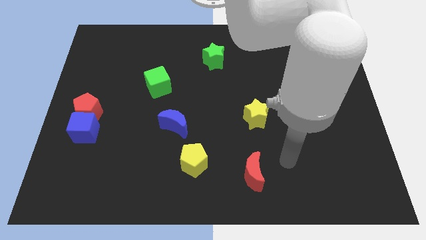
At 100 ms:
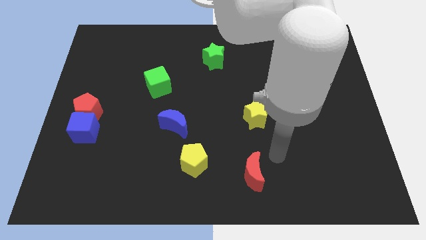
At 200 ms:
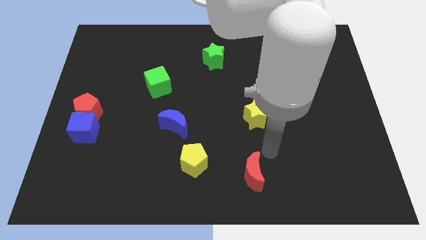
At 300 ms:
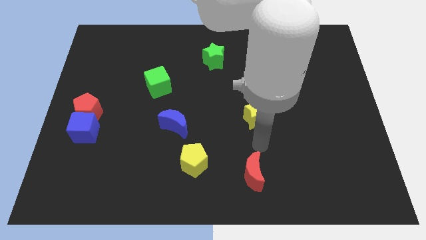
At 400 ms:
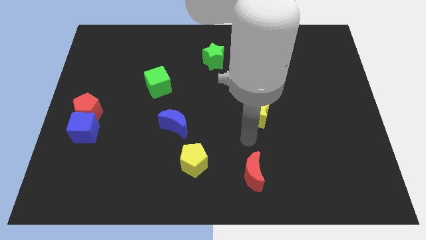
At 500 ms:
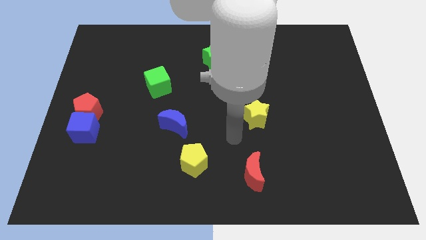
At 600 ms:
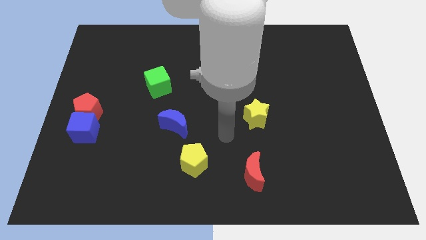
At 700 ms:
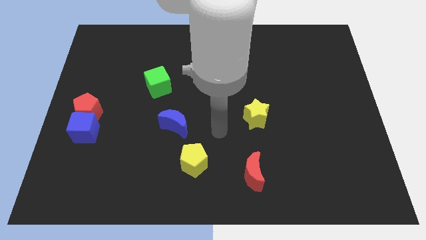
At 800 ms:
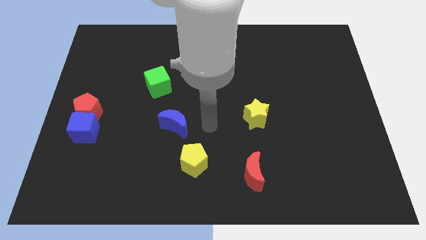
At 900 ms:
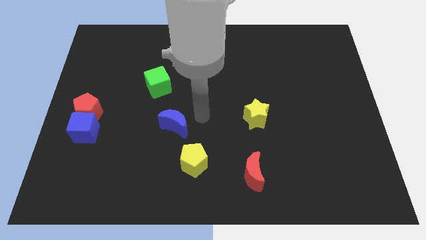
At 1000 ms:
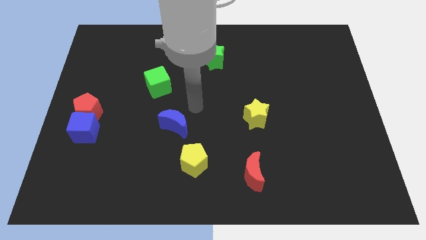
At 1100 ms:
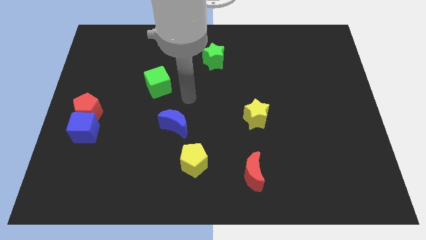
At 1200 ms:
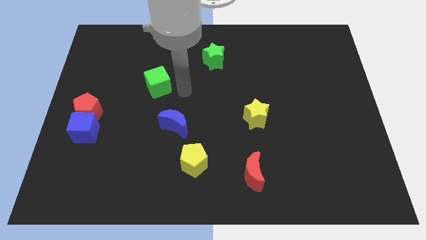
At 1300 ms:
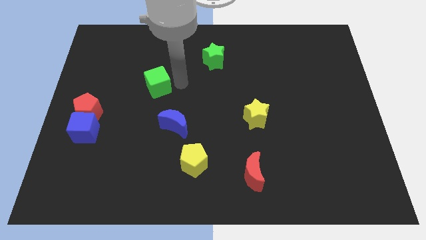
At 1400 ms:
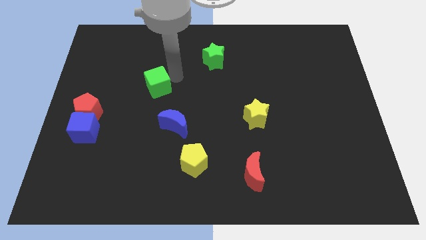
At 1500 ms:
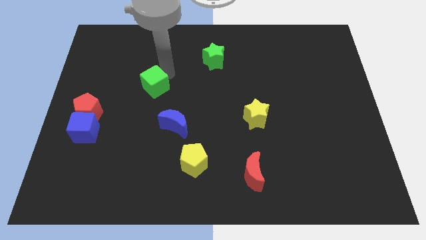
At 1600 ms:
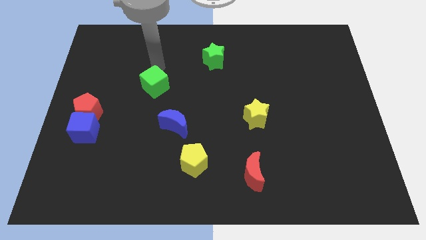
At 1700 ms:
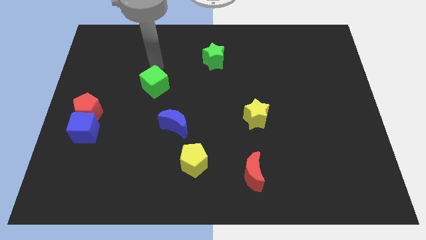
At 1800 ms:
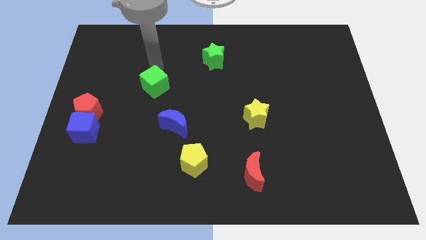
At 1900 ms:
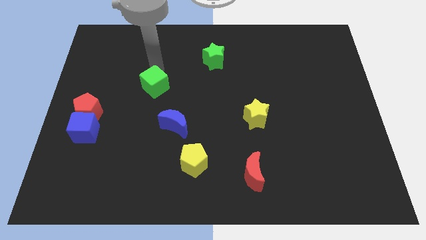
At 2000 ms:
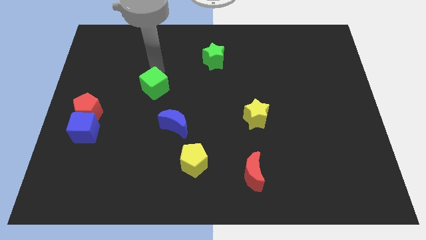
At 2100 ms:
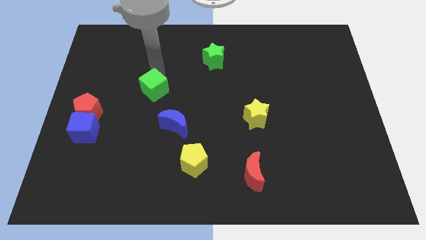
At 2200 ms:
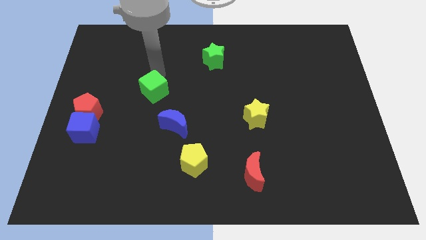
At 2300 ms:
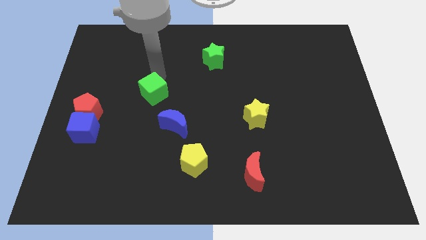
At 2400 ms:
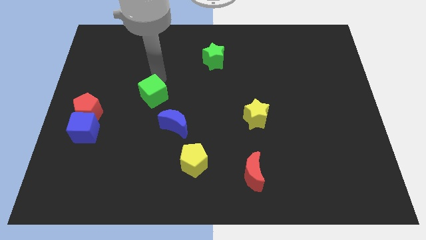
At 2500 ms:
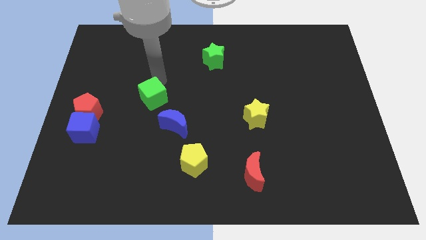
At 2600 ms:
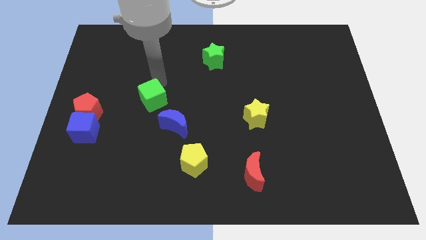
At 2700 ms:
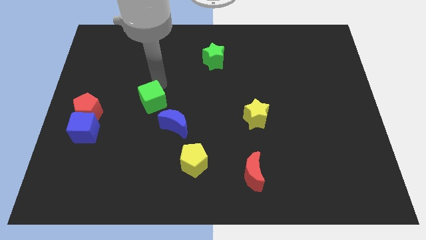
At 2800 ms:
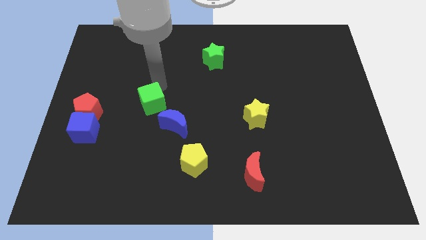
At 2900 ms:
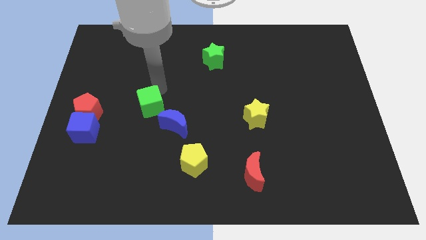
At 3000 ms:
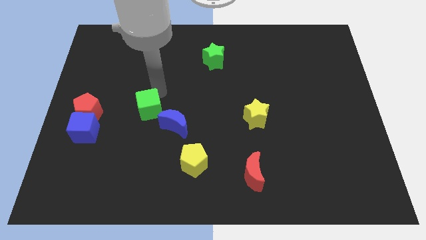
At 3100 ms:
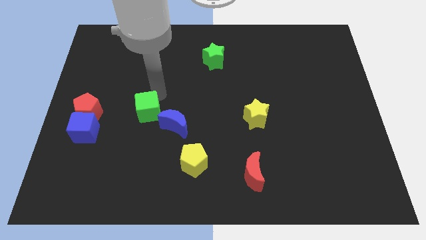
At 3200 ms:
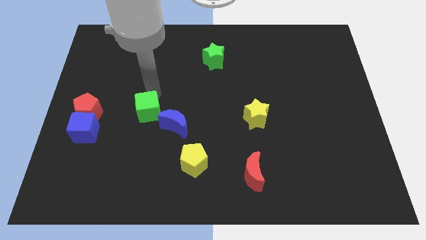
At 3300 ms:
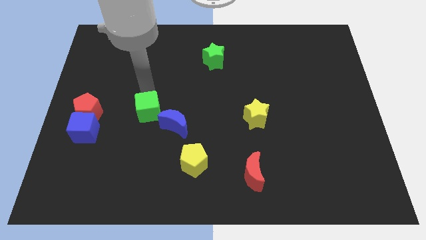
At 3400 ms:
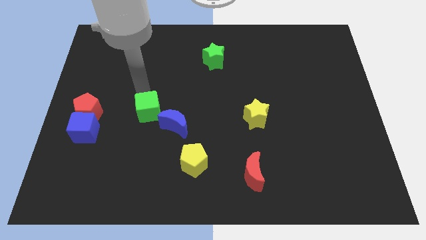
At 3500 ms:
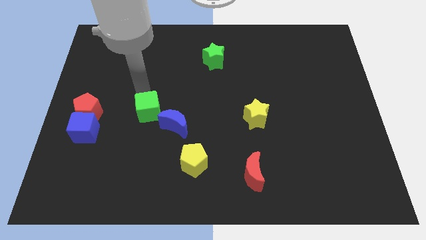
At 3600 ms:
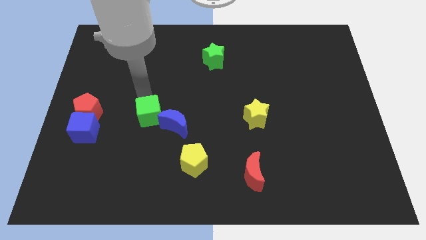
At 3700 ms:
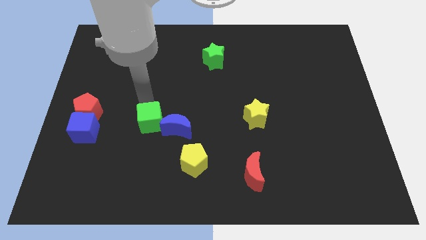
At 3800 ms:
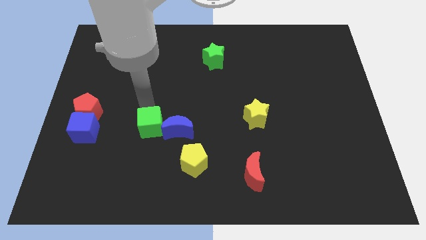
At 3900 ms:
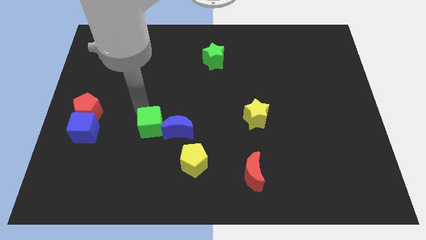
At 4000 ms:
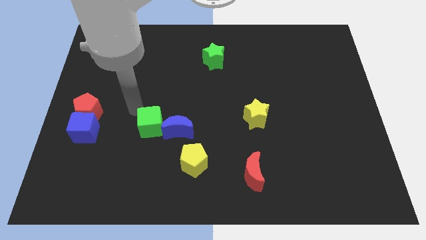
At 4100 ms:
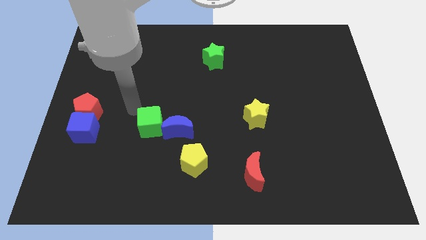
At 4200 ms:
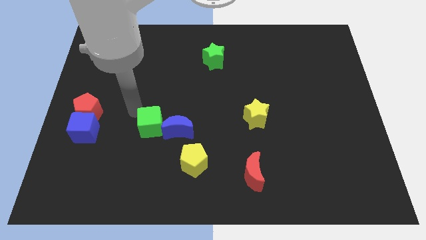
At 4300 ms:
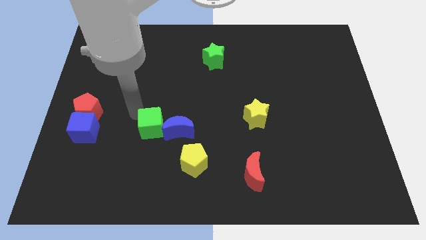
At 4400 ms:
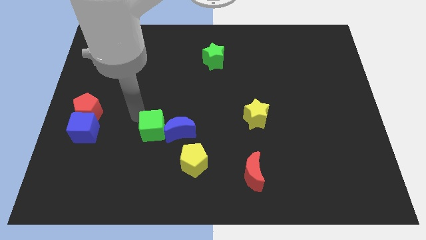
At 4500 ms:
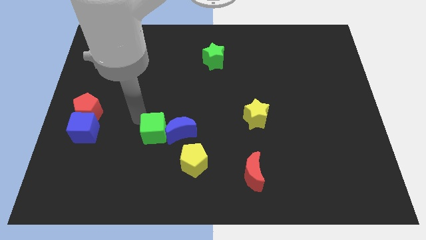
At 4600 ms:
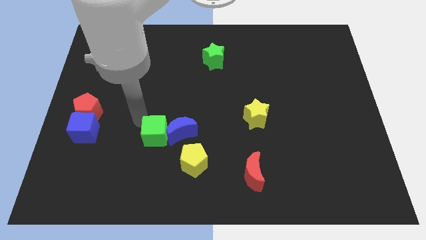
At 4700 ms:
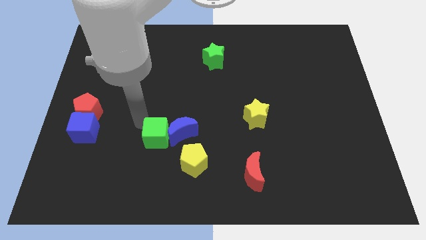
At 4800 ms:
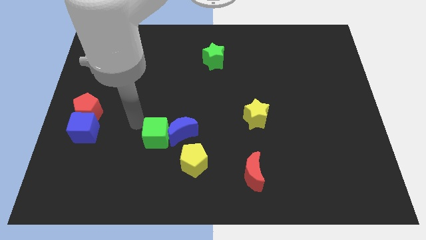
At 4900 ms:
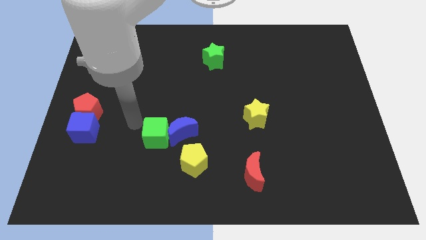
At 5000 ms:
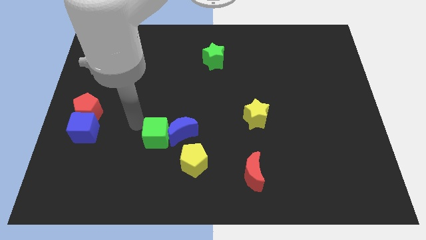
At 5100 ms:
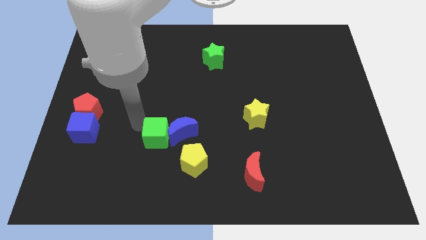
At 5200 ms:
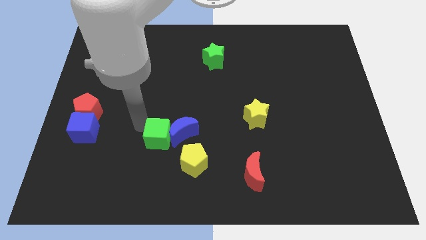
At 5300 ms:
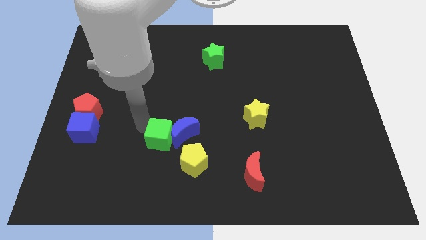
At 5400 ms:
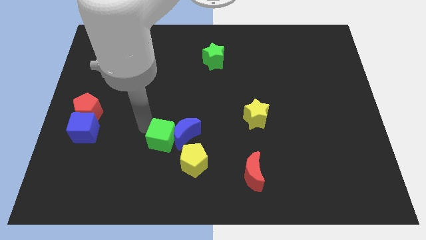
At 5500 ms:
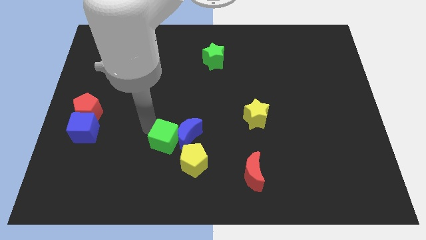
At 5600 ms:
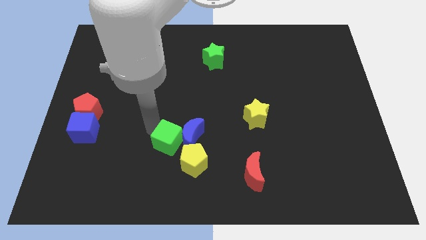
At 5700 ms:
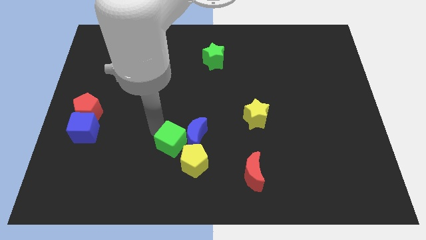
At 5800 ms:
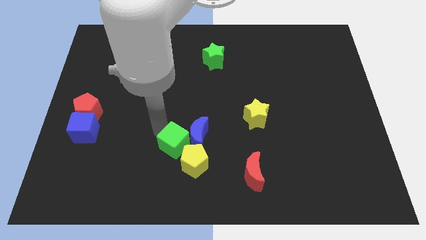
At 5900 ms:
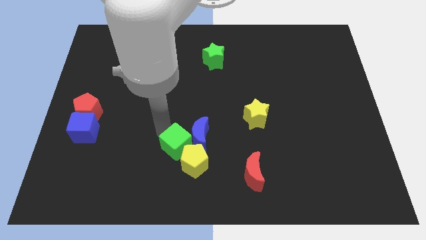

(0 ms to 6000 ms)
move the green cube close to the yellow pentagon

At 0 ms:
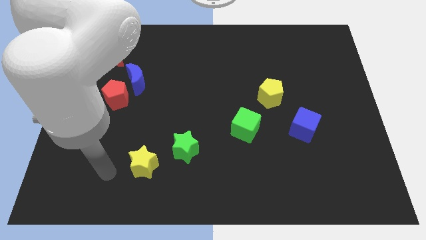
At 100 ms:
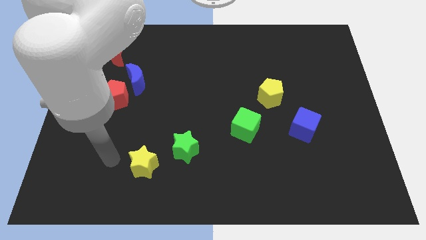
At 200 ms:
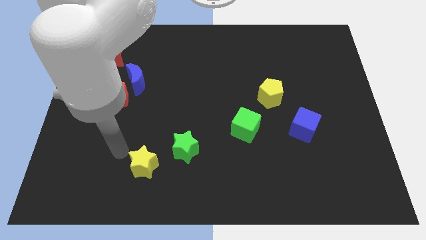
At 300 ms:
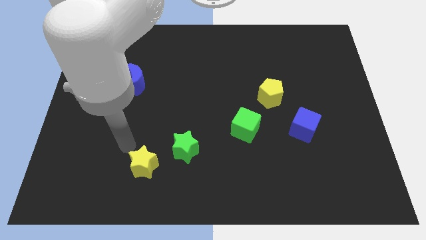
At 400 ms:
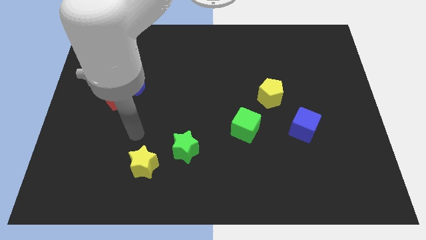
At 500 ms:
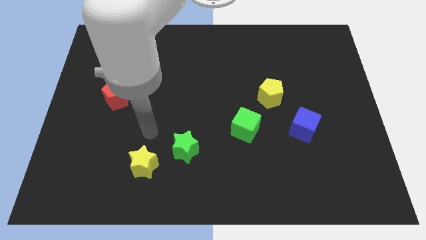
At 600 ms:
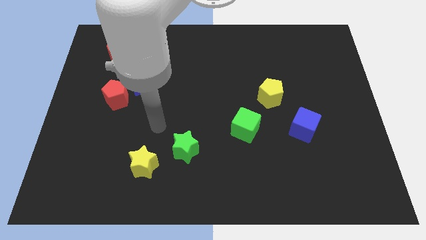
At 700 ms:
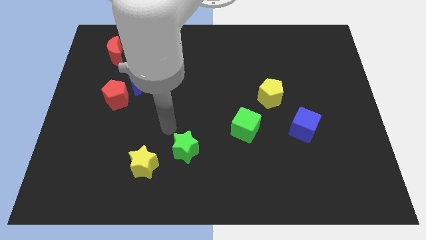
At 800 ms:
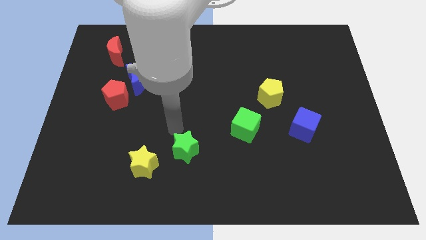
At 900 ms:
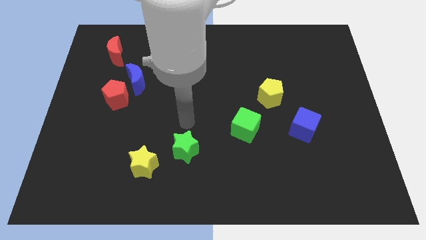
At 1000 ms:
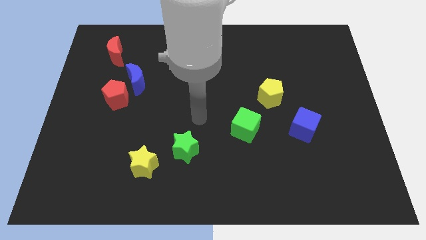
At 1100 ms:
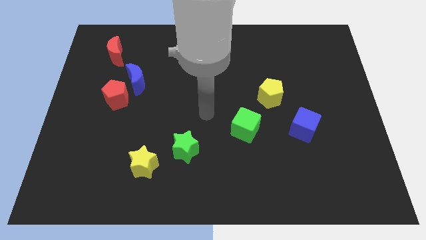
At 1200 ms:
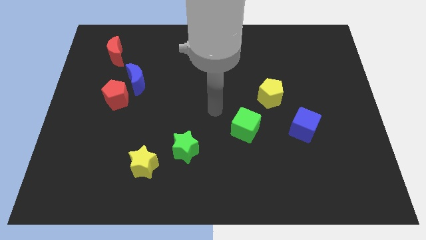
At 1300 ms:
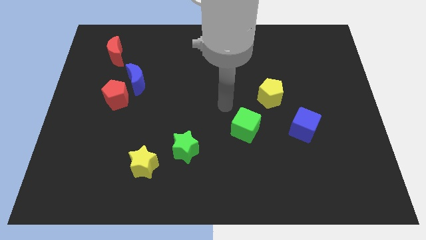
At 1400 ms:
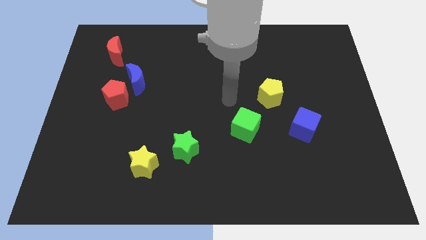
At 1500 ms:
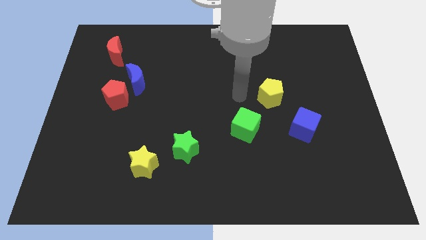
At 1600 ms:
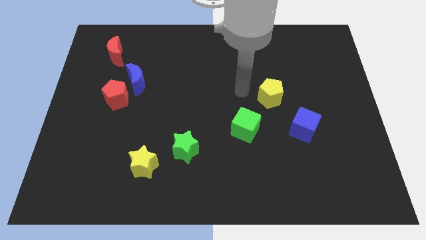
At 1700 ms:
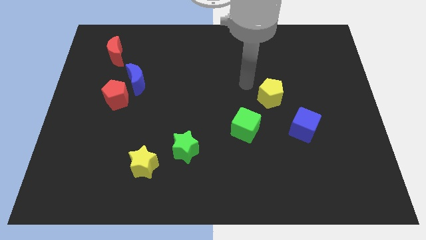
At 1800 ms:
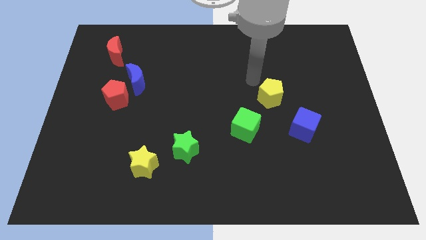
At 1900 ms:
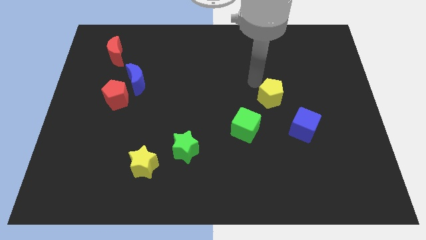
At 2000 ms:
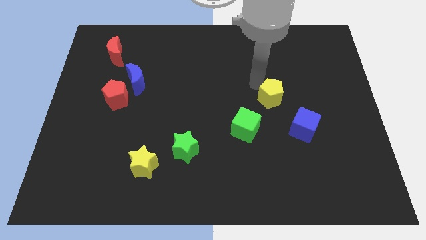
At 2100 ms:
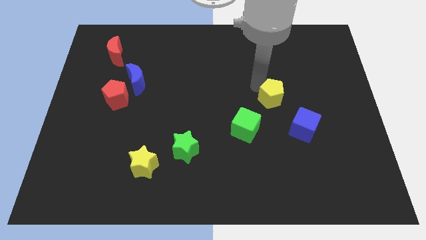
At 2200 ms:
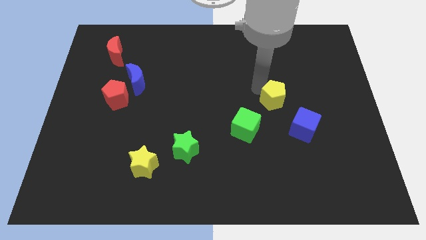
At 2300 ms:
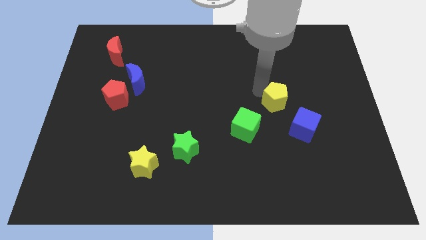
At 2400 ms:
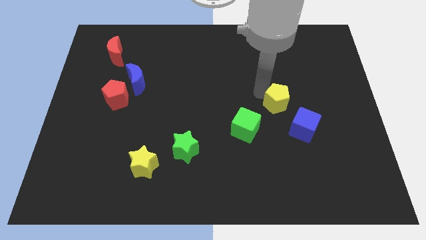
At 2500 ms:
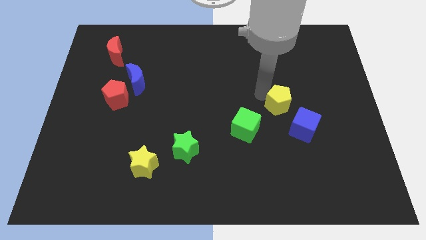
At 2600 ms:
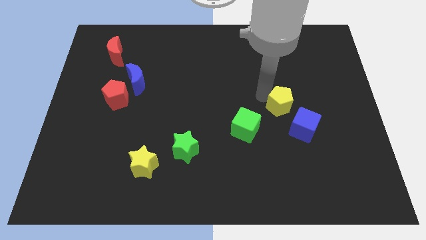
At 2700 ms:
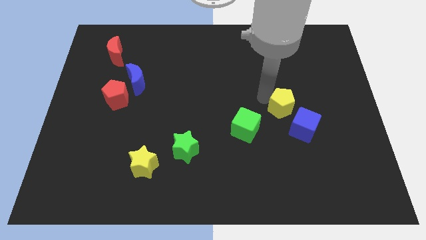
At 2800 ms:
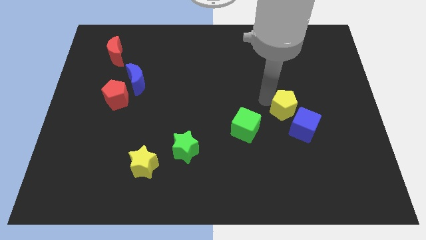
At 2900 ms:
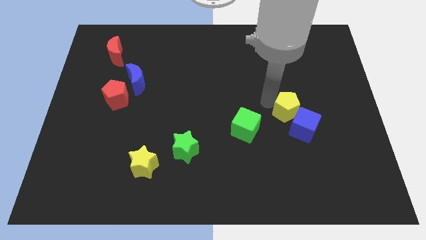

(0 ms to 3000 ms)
move the yellow pentagon close to the blue cube
